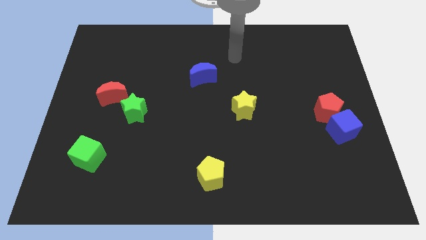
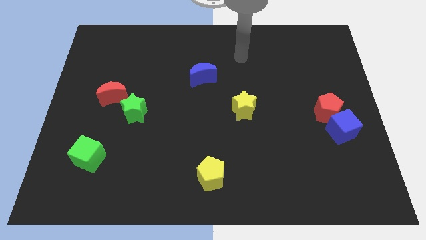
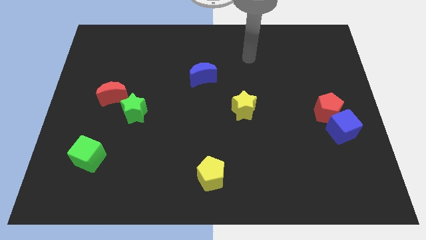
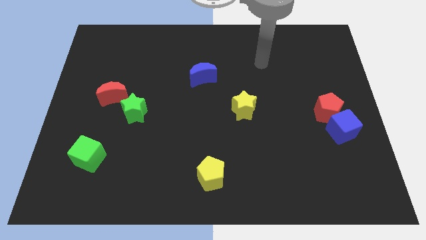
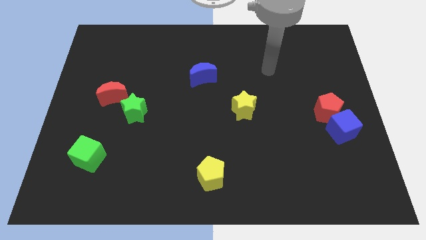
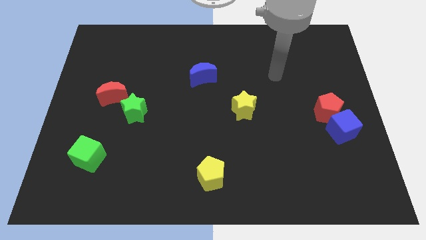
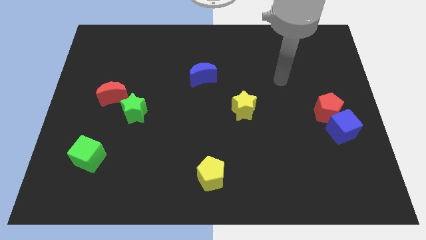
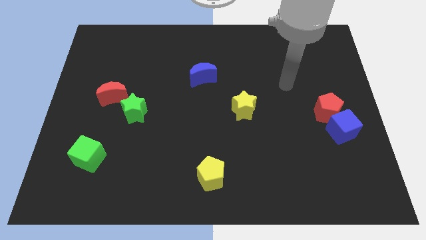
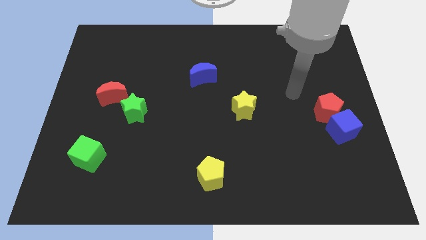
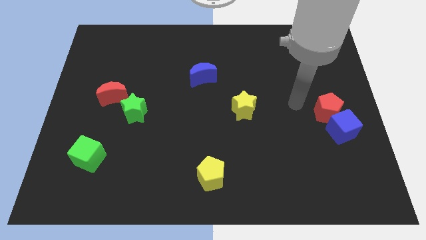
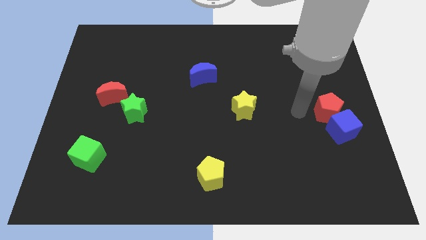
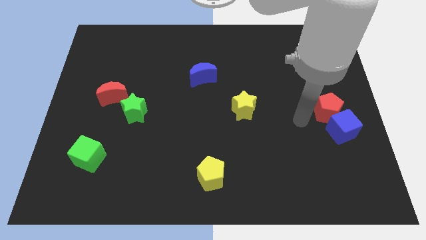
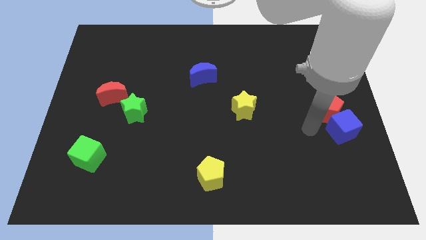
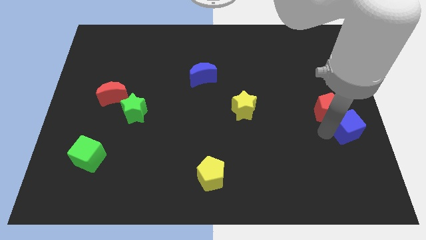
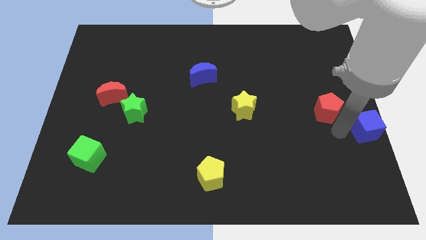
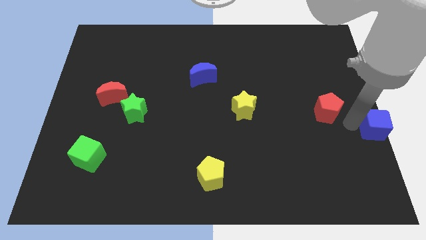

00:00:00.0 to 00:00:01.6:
pull the red pentagon apart from the blue cube

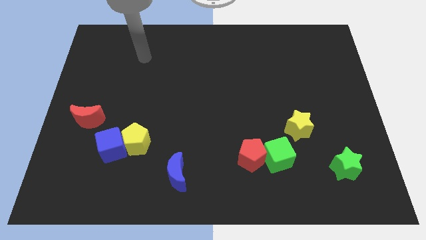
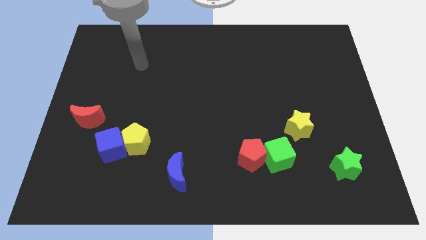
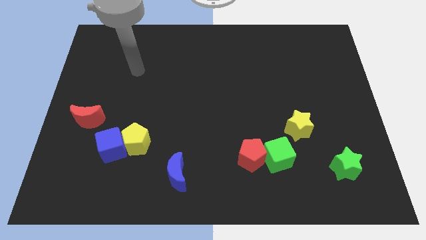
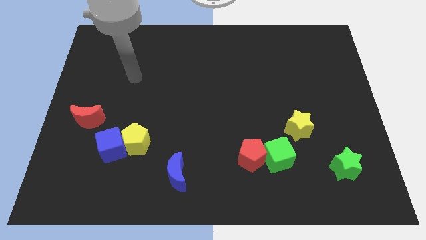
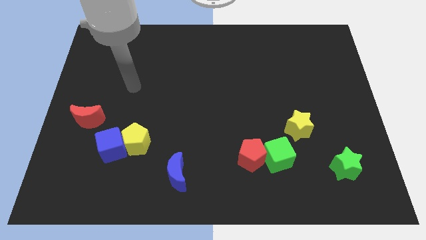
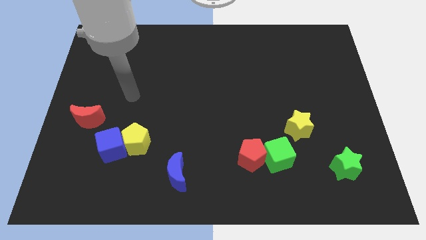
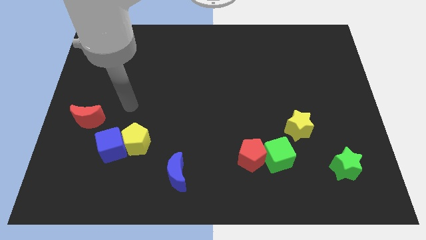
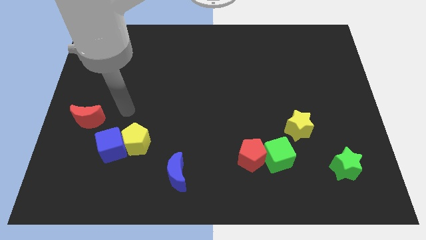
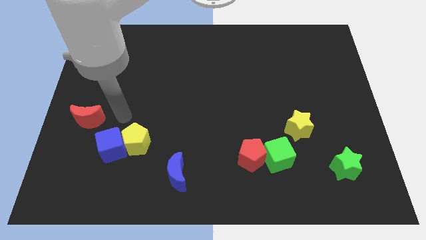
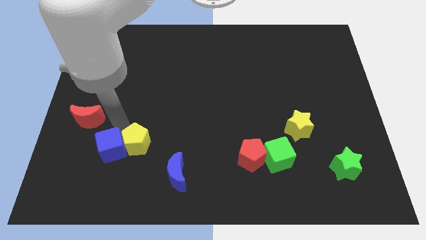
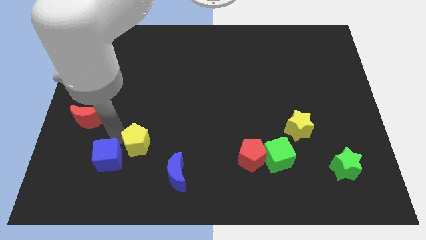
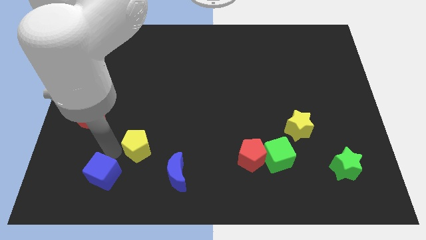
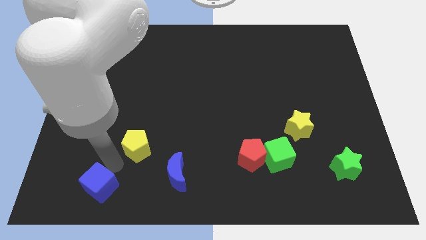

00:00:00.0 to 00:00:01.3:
move the yellow pentagon away from the blue cube

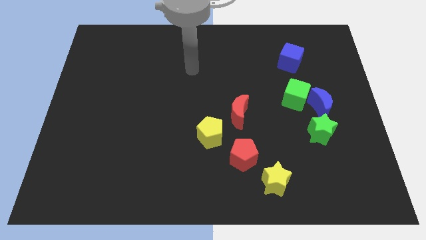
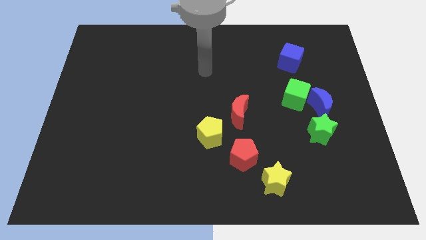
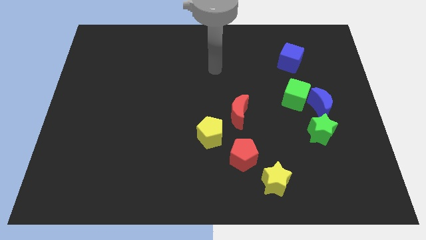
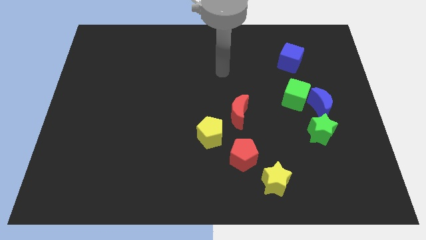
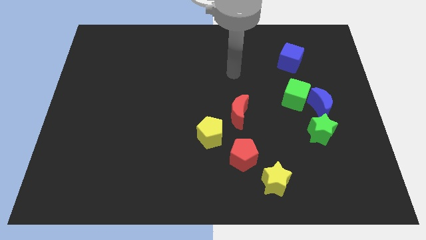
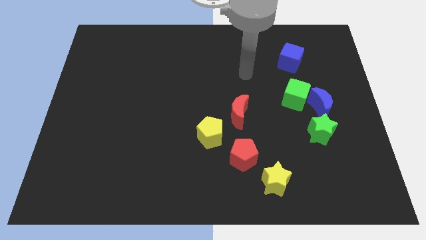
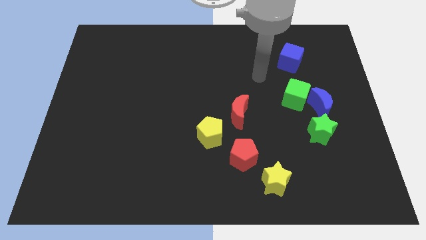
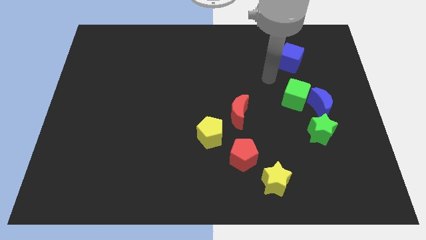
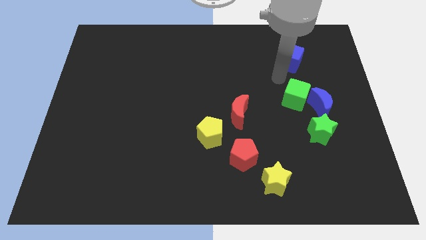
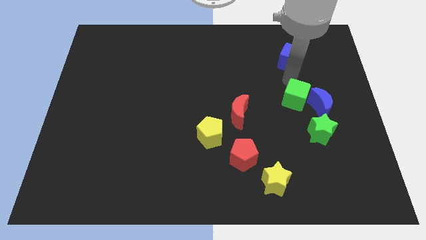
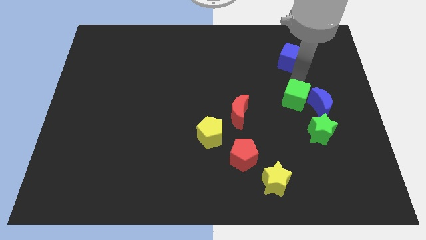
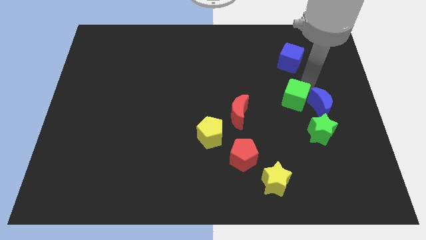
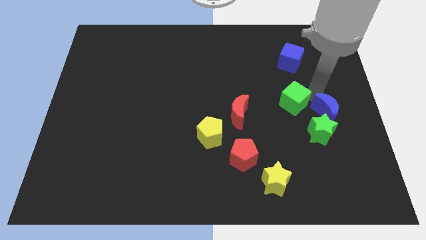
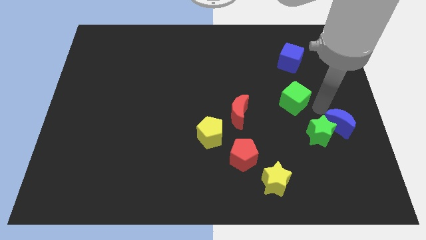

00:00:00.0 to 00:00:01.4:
separate the green cube from the blue moon

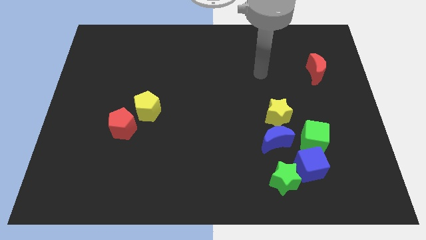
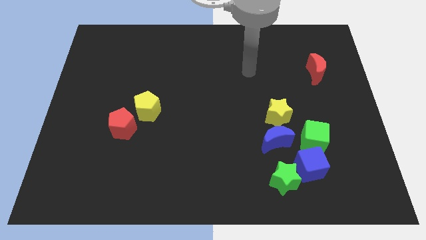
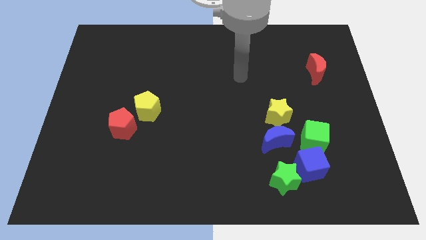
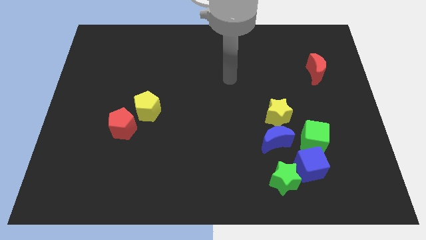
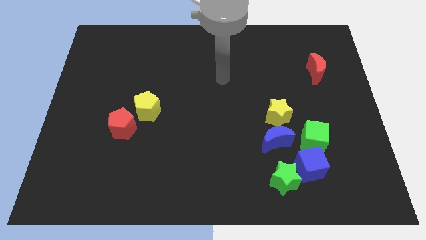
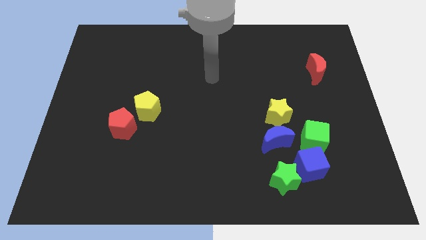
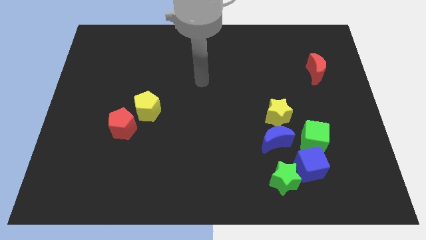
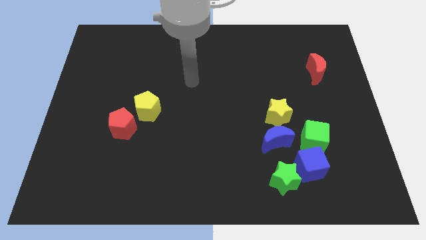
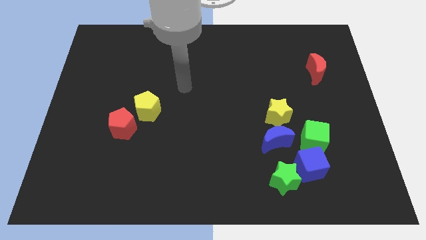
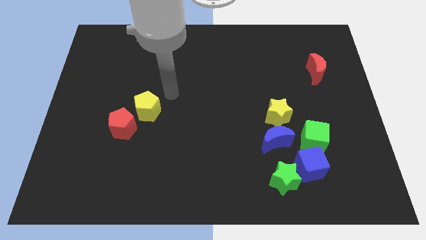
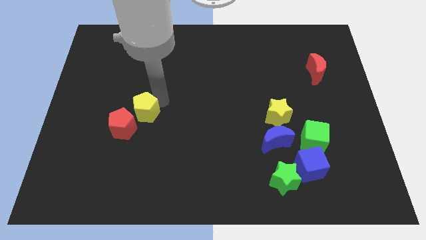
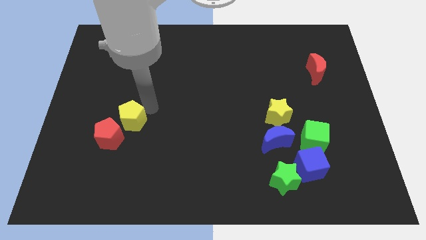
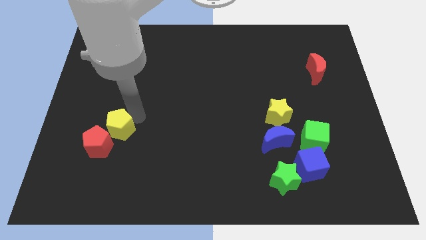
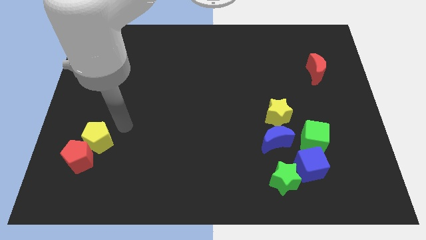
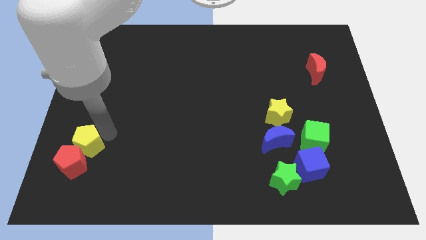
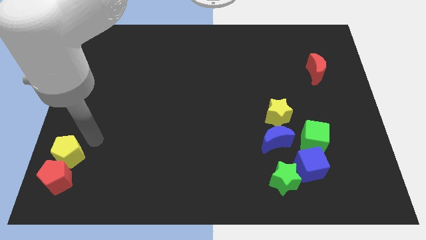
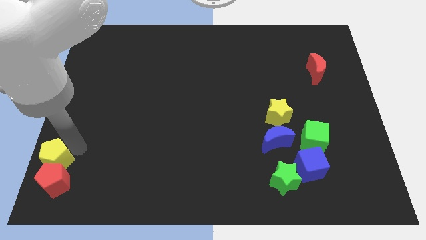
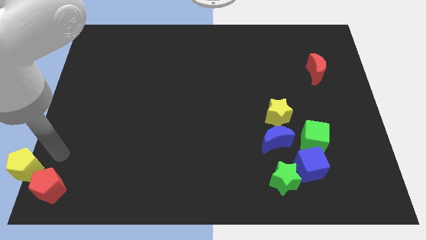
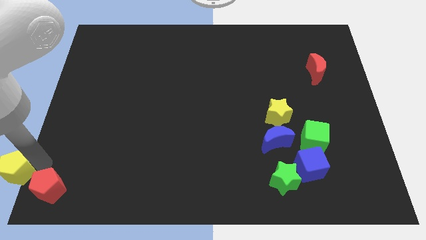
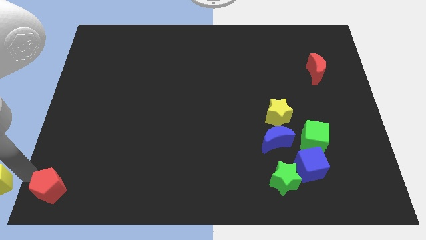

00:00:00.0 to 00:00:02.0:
move the red pentagon away from the yellow pentagon

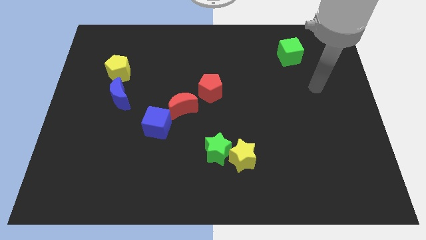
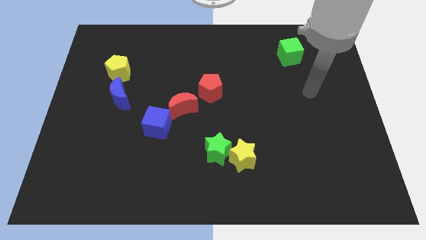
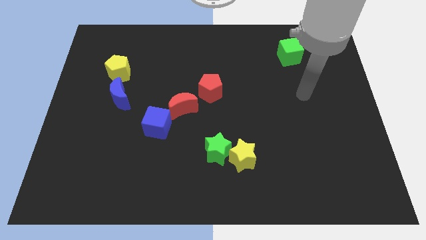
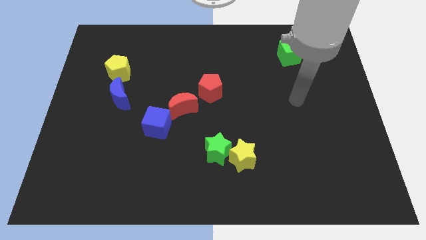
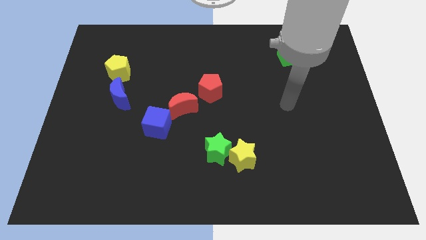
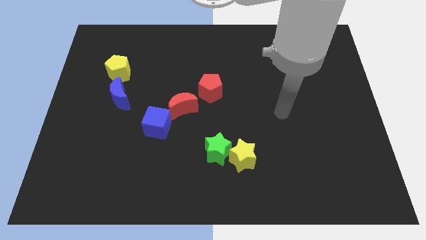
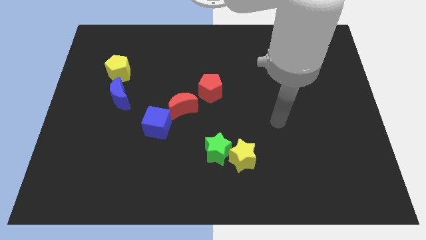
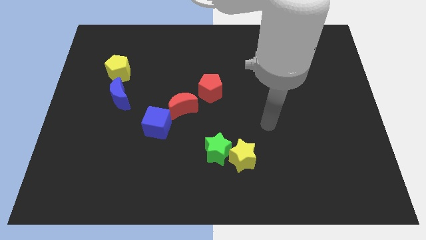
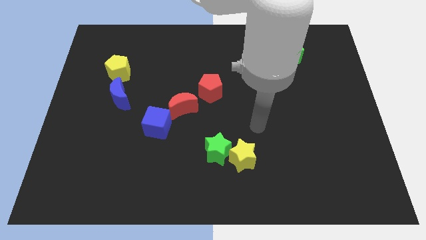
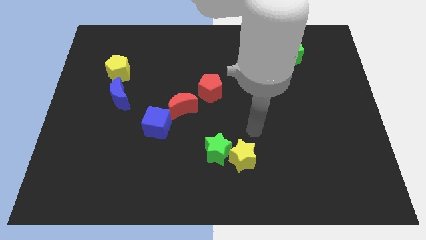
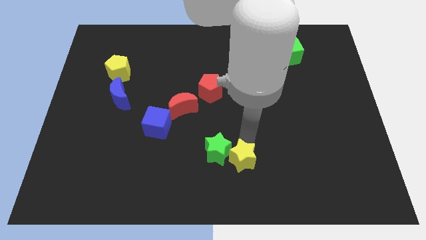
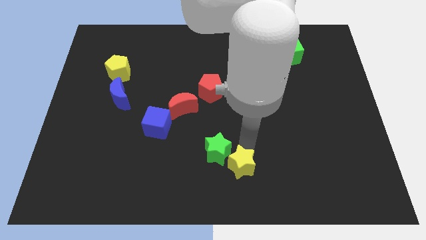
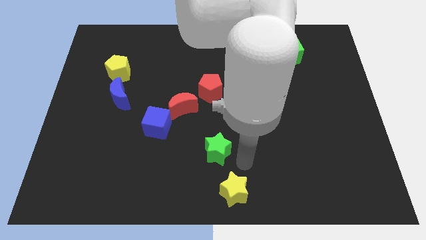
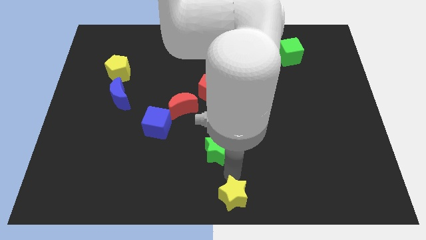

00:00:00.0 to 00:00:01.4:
move the green star away from the yellow star

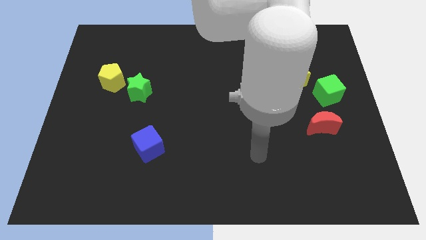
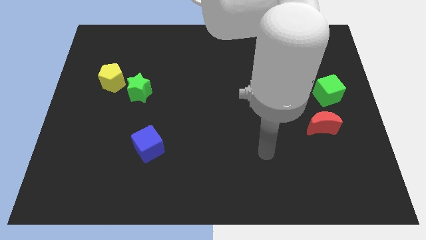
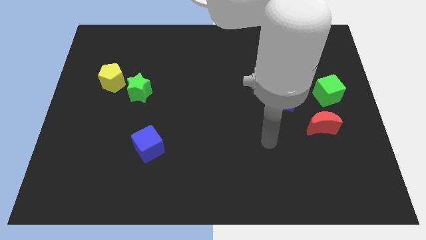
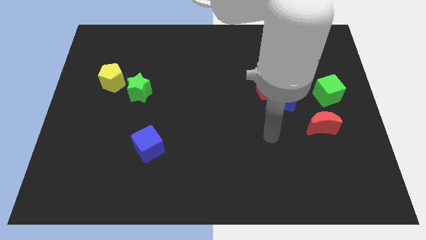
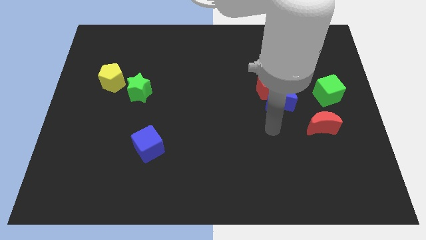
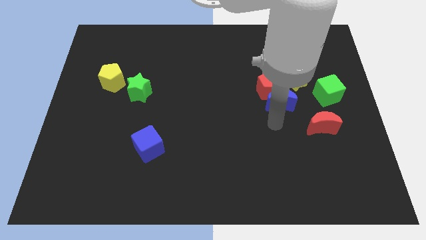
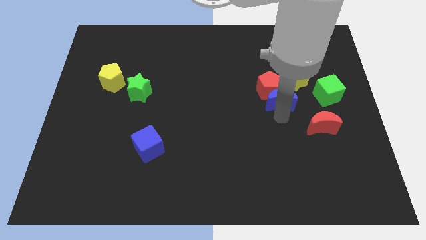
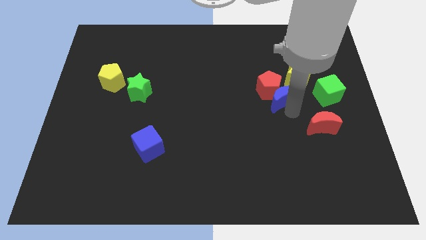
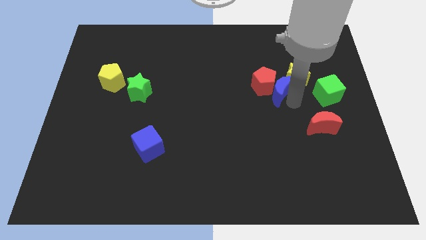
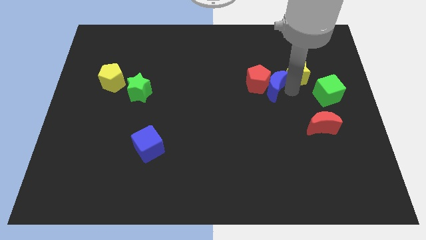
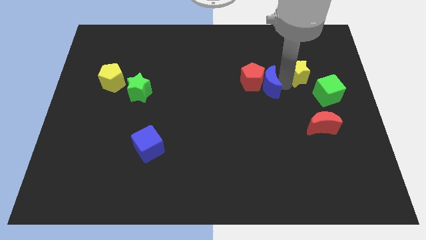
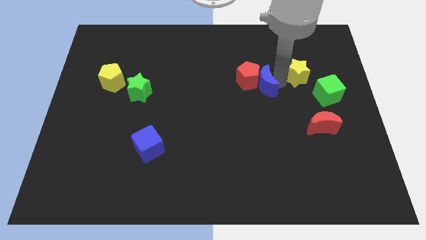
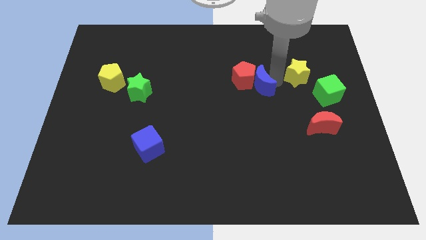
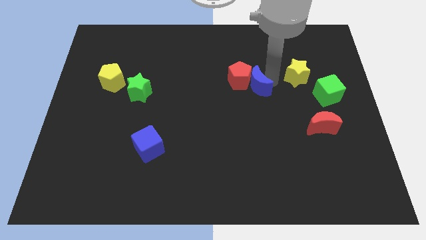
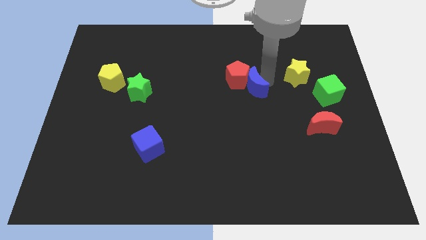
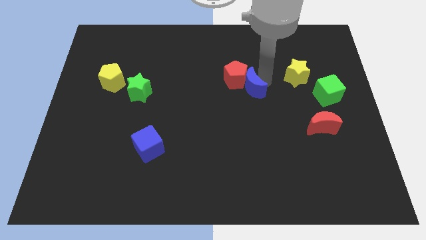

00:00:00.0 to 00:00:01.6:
separate the red pentagon from the blue moon and yellow star
